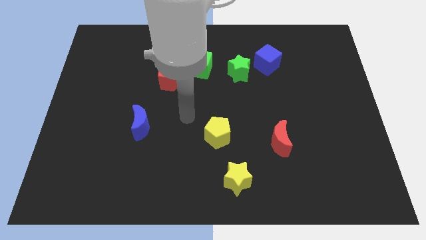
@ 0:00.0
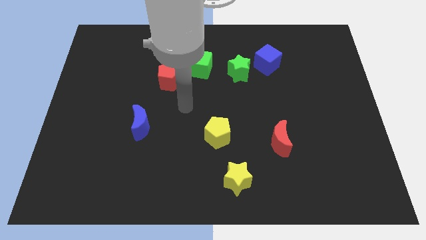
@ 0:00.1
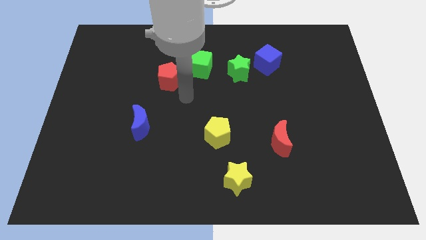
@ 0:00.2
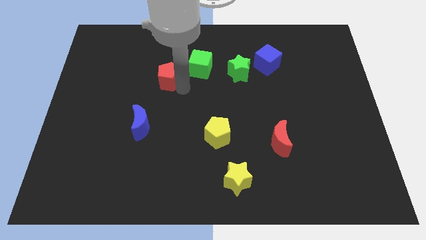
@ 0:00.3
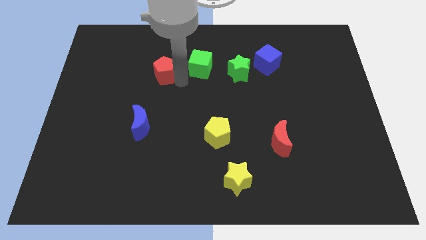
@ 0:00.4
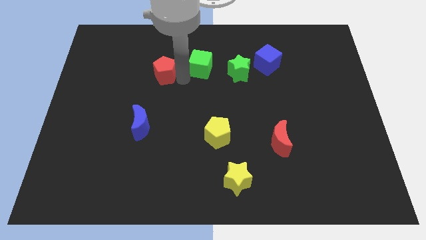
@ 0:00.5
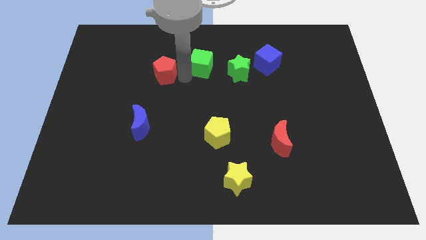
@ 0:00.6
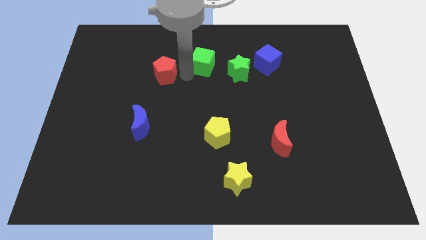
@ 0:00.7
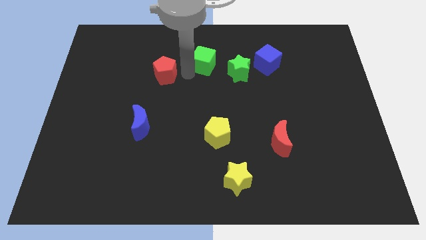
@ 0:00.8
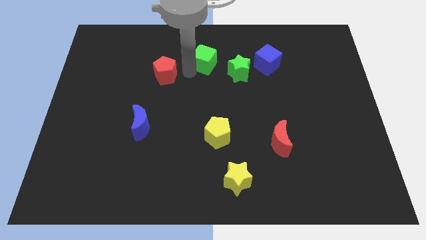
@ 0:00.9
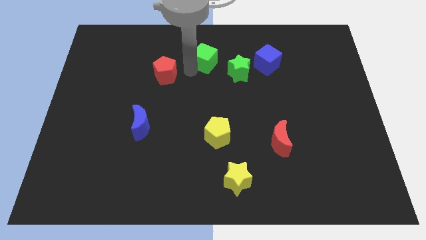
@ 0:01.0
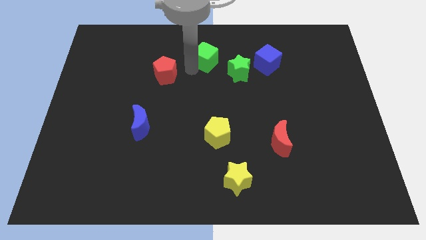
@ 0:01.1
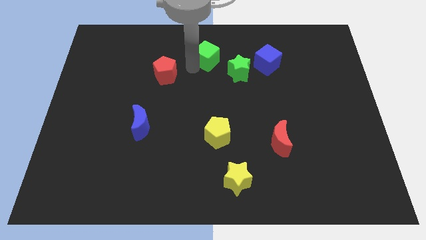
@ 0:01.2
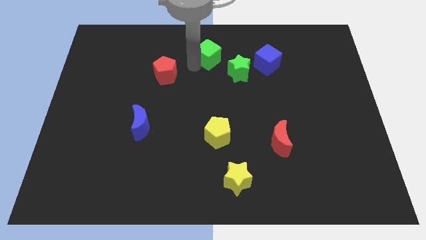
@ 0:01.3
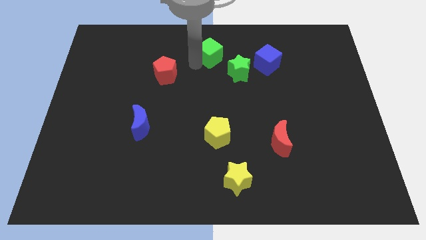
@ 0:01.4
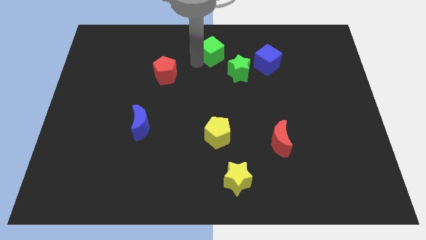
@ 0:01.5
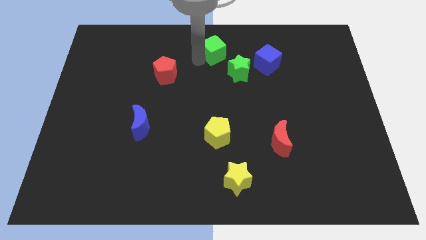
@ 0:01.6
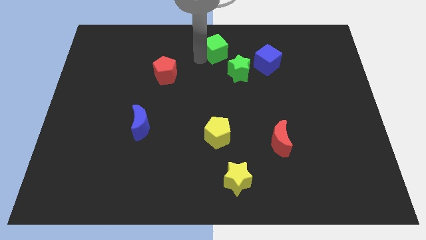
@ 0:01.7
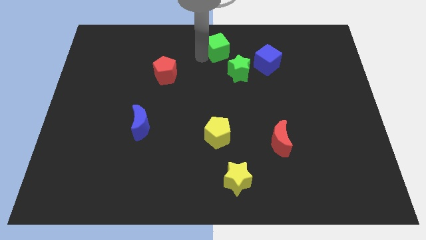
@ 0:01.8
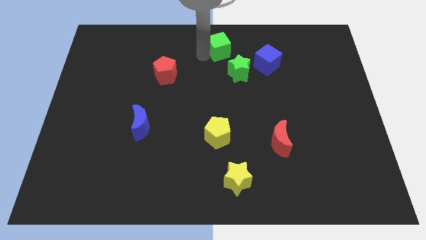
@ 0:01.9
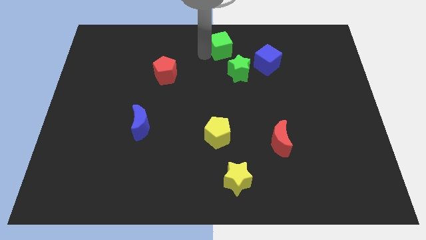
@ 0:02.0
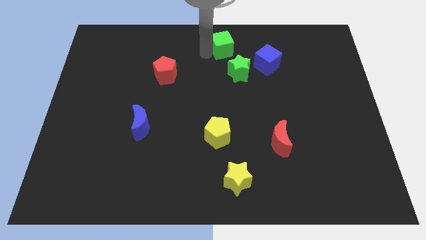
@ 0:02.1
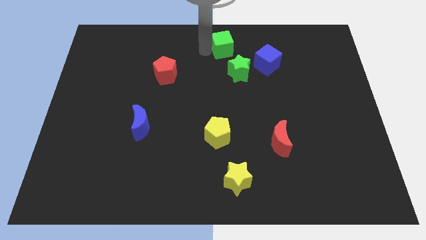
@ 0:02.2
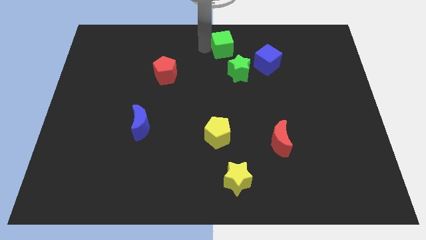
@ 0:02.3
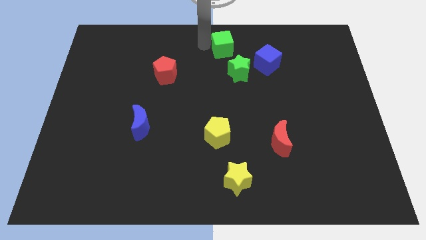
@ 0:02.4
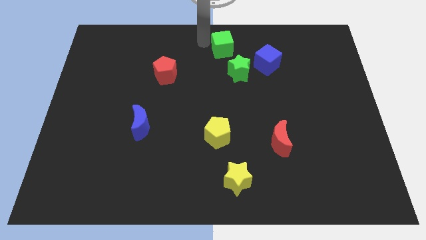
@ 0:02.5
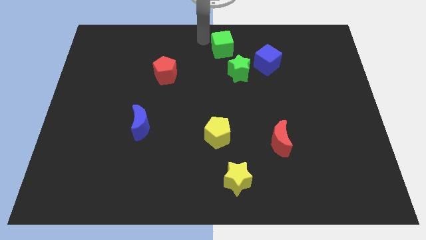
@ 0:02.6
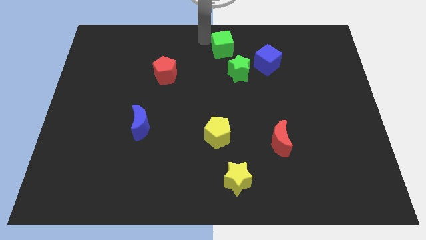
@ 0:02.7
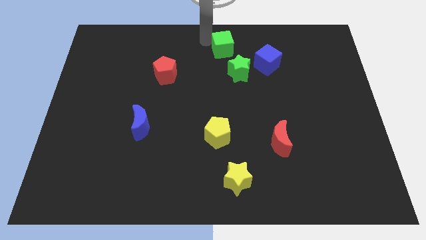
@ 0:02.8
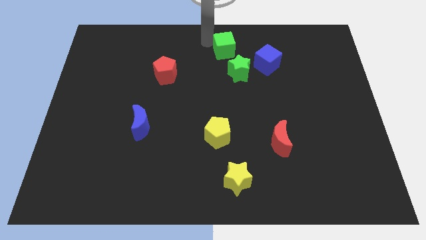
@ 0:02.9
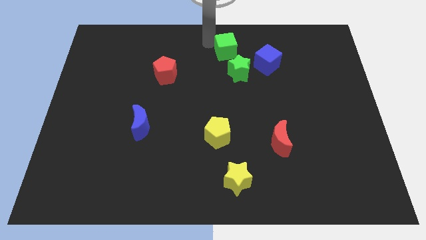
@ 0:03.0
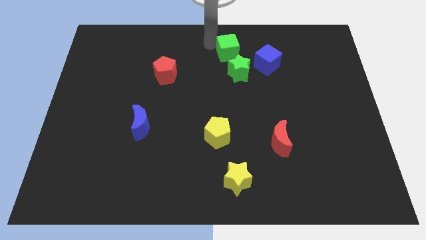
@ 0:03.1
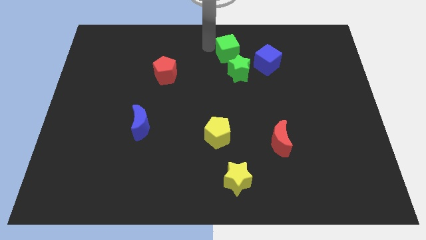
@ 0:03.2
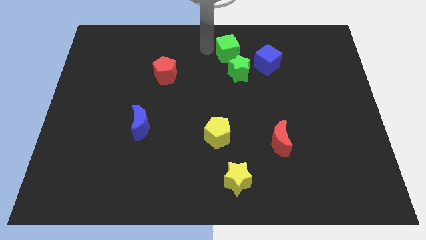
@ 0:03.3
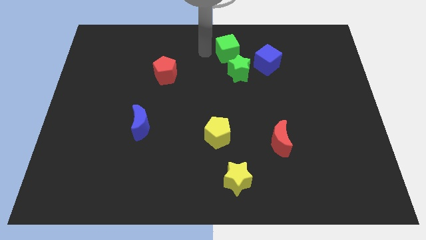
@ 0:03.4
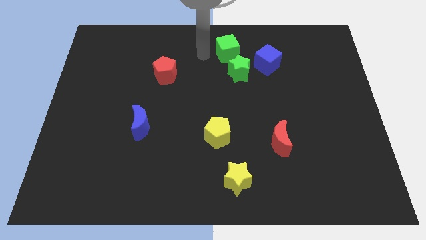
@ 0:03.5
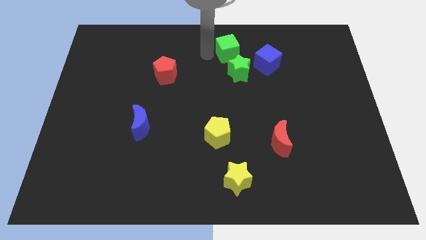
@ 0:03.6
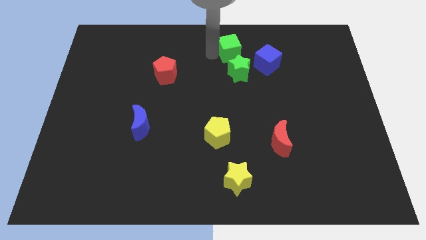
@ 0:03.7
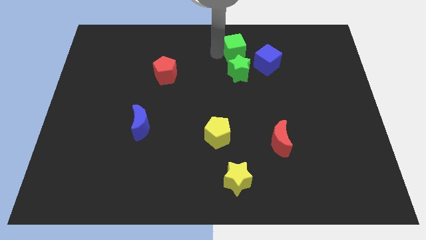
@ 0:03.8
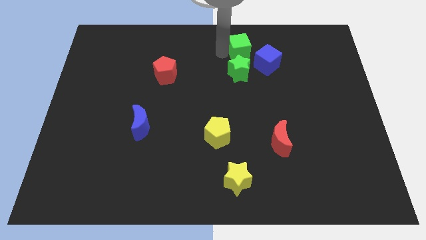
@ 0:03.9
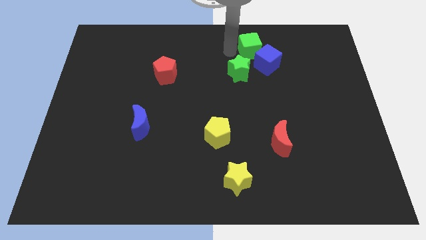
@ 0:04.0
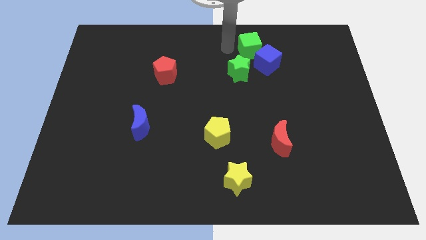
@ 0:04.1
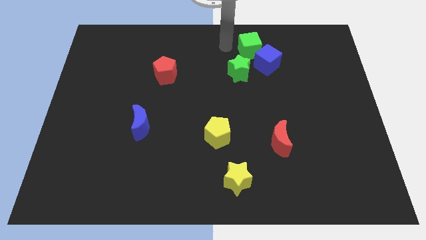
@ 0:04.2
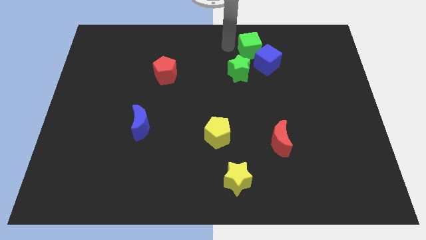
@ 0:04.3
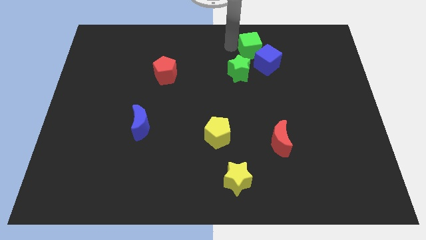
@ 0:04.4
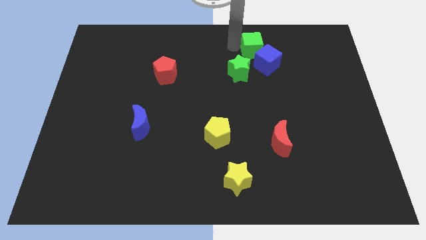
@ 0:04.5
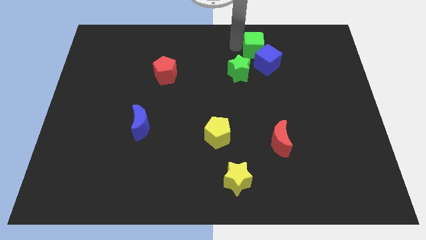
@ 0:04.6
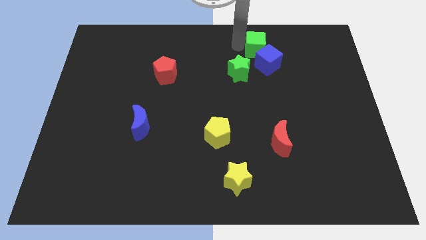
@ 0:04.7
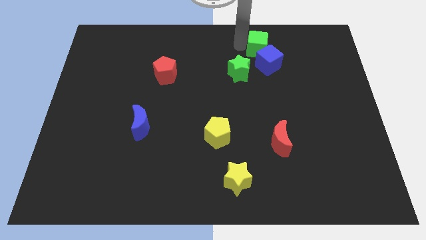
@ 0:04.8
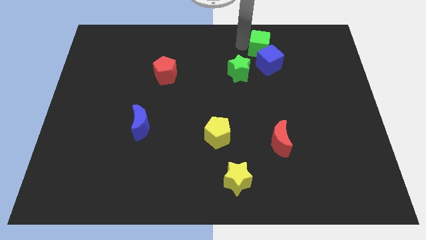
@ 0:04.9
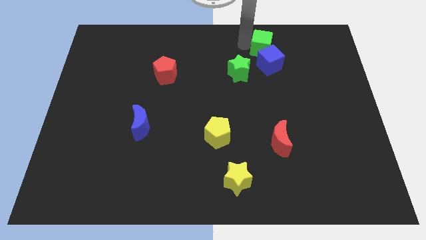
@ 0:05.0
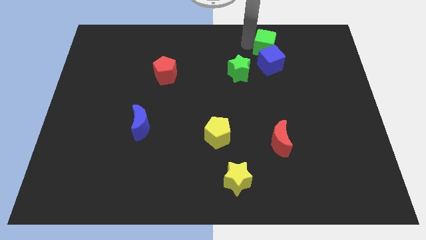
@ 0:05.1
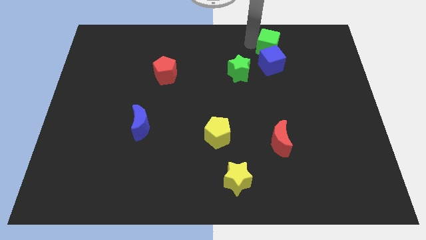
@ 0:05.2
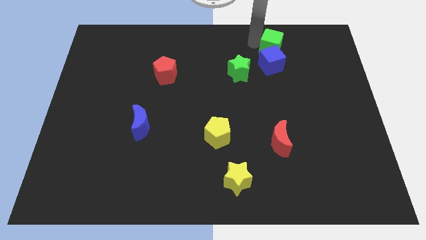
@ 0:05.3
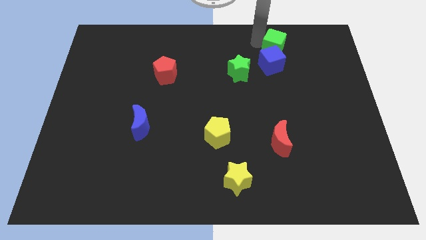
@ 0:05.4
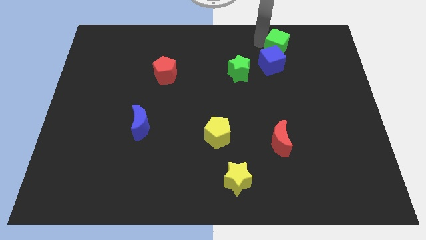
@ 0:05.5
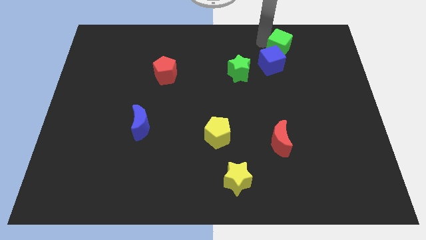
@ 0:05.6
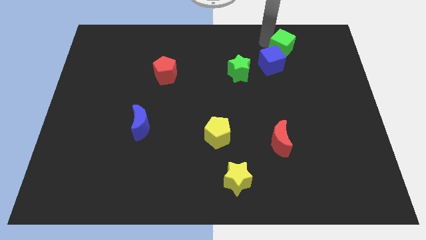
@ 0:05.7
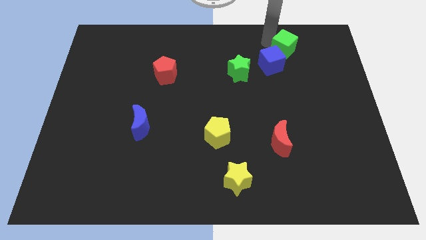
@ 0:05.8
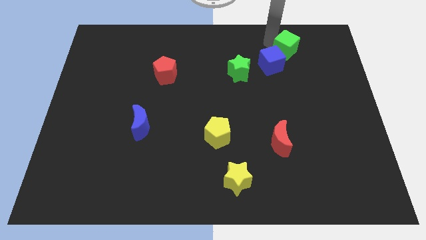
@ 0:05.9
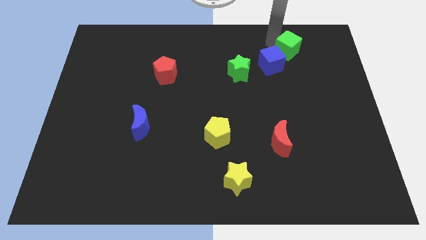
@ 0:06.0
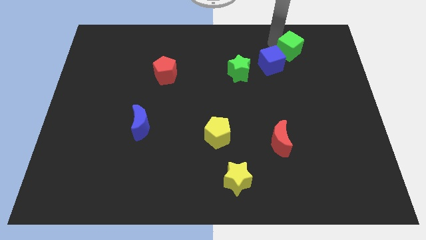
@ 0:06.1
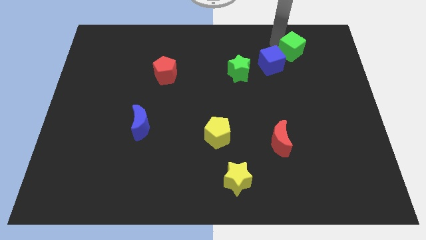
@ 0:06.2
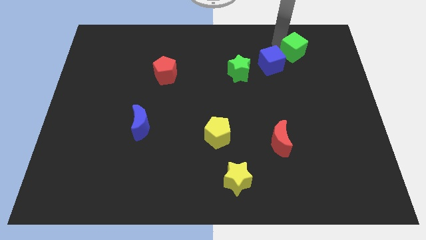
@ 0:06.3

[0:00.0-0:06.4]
put the green cube right of the blue cube
